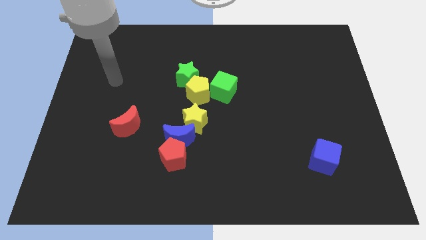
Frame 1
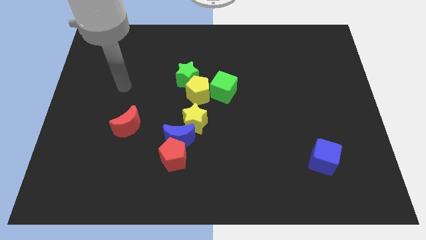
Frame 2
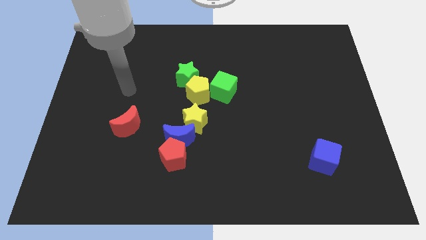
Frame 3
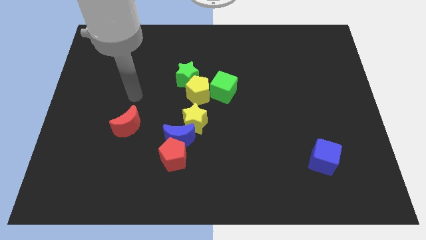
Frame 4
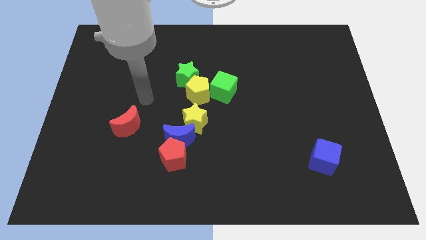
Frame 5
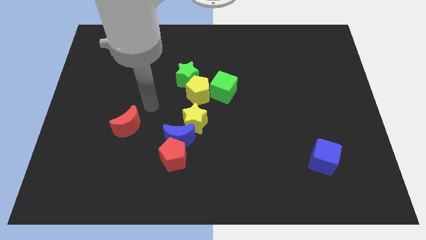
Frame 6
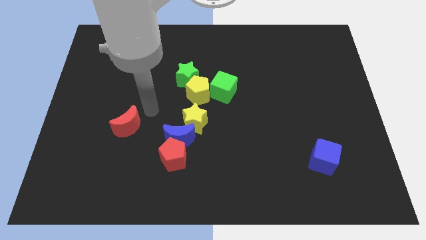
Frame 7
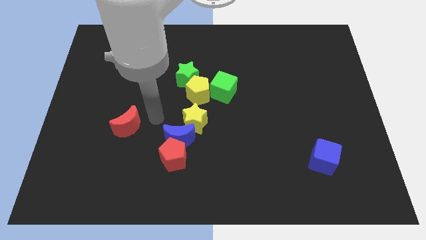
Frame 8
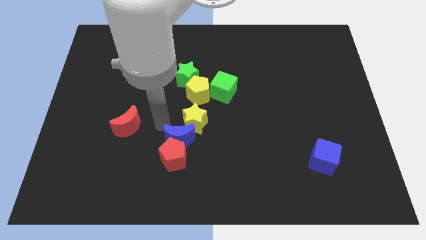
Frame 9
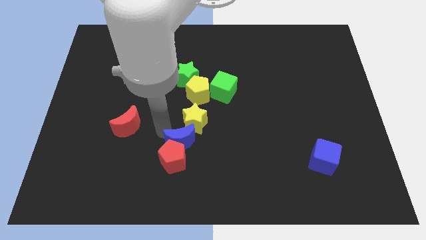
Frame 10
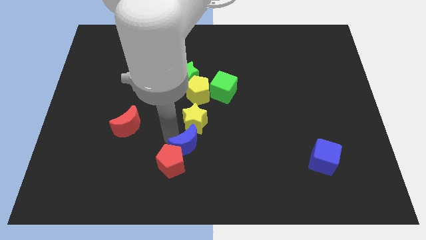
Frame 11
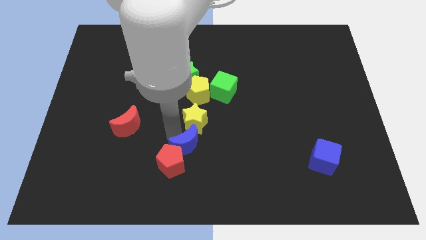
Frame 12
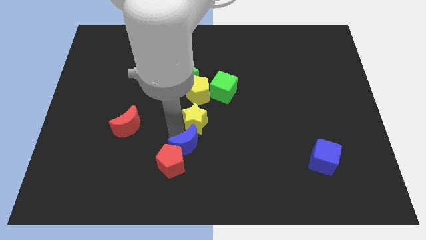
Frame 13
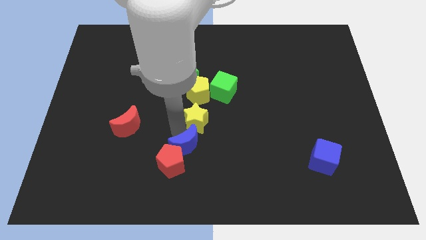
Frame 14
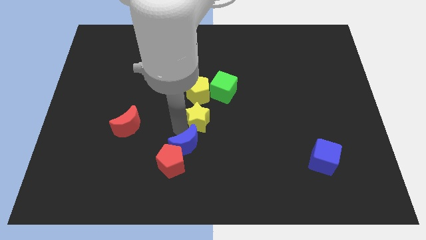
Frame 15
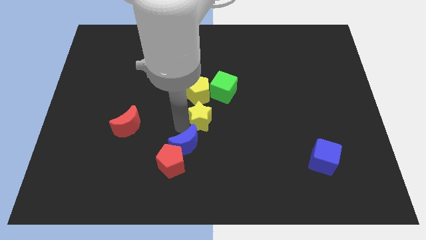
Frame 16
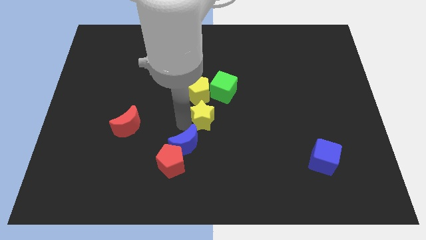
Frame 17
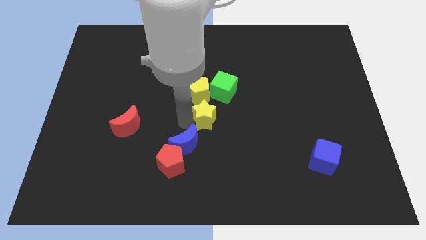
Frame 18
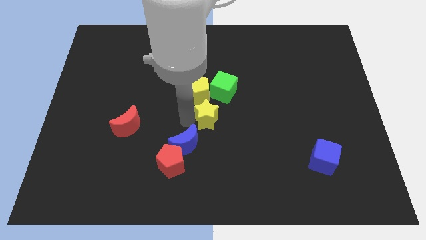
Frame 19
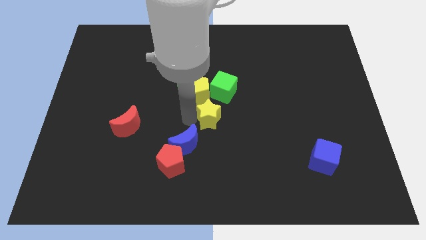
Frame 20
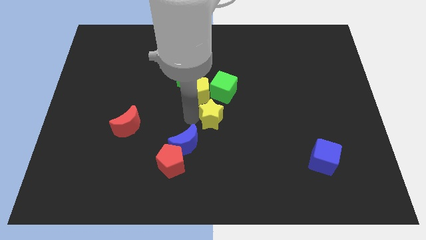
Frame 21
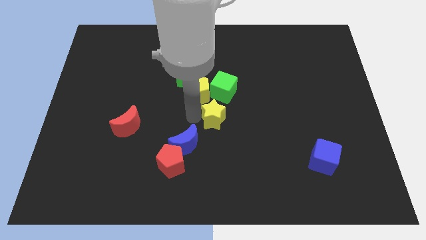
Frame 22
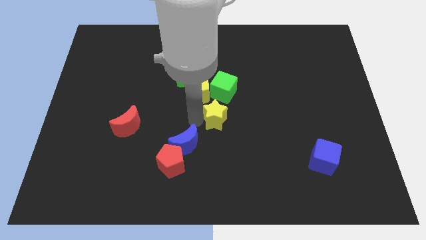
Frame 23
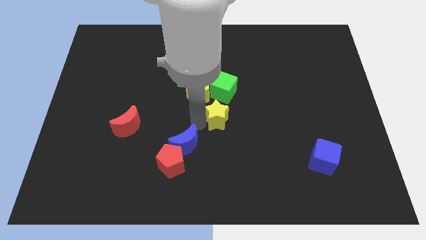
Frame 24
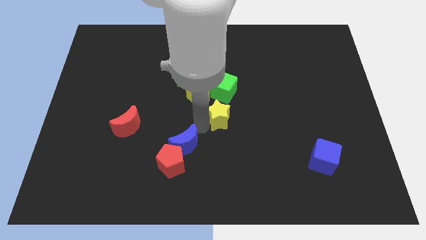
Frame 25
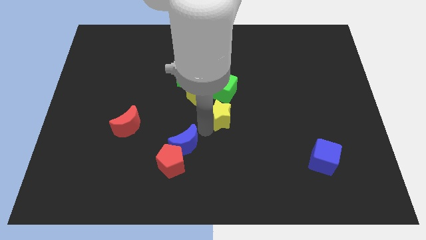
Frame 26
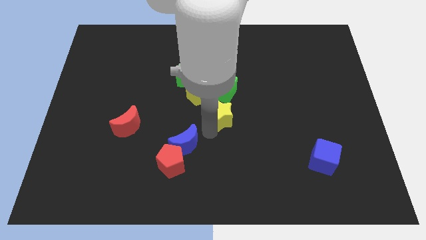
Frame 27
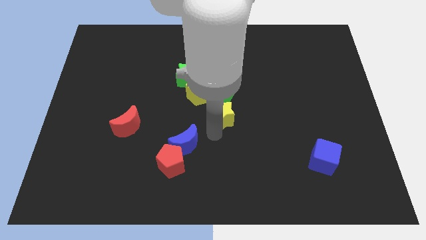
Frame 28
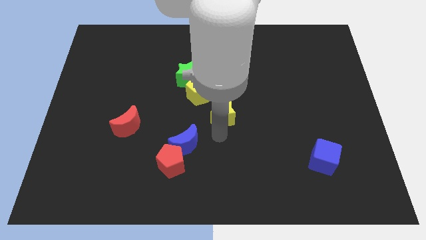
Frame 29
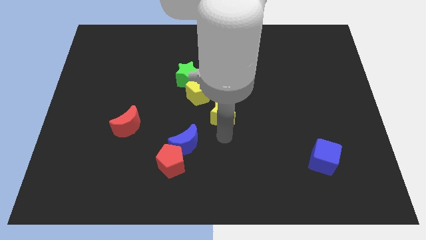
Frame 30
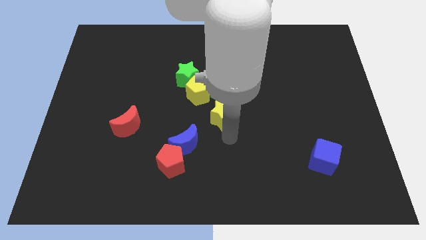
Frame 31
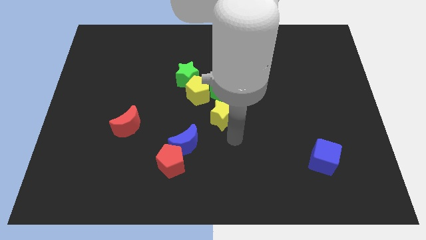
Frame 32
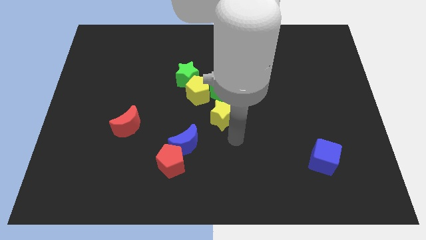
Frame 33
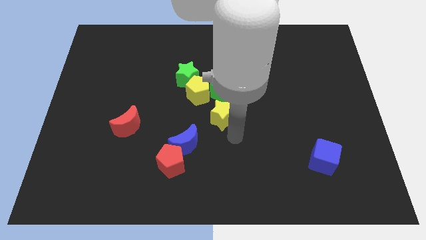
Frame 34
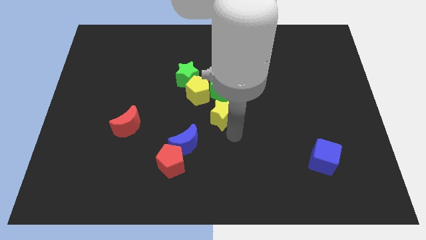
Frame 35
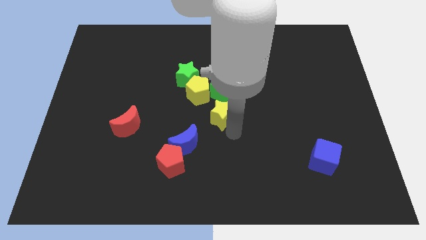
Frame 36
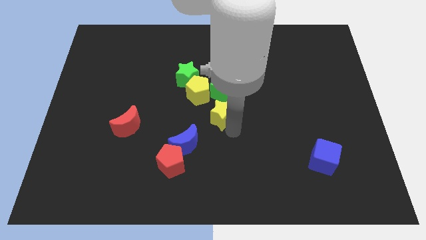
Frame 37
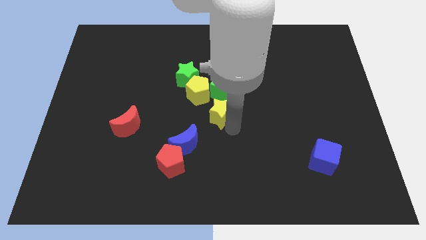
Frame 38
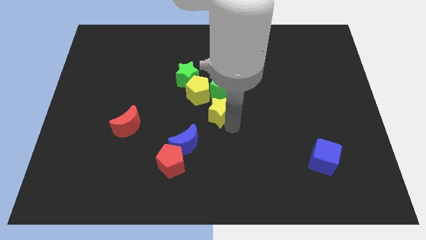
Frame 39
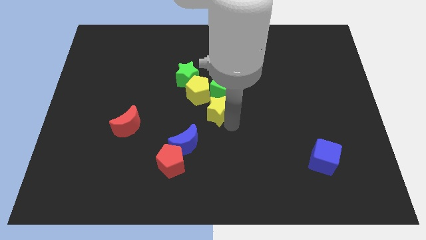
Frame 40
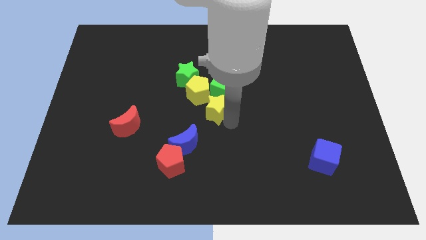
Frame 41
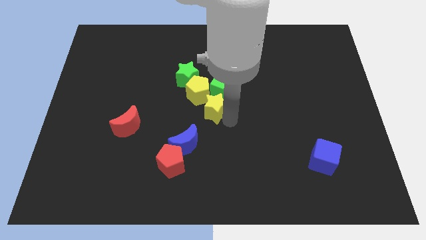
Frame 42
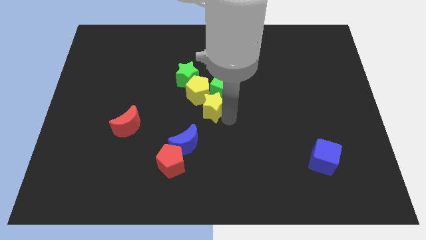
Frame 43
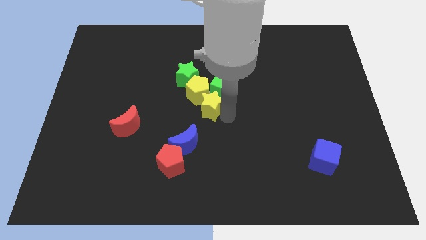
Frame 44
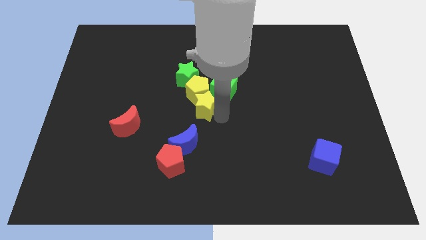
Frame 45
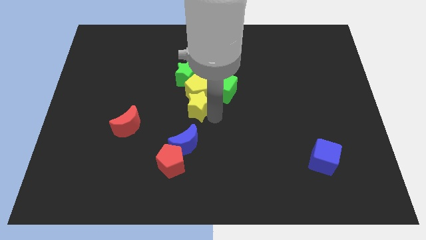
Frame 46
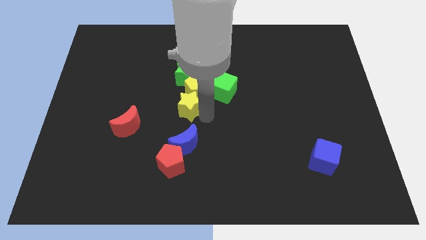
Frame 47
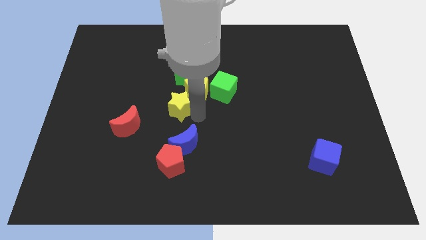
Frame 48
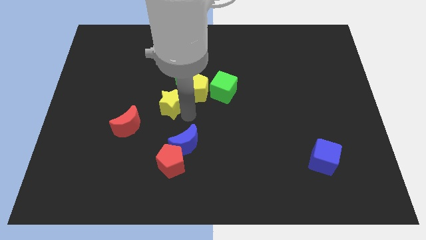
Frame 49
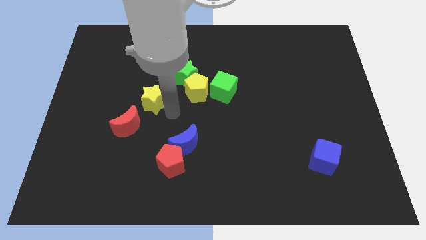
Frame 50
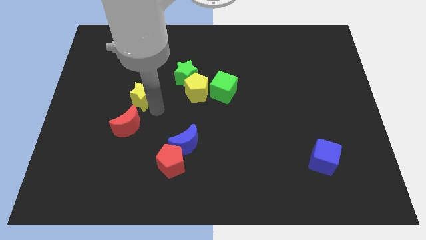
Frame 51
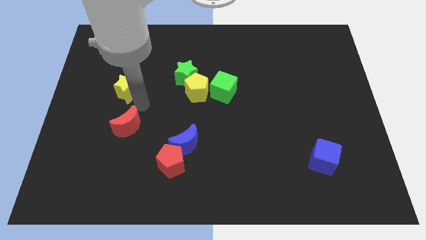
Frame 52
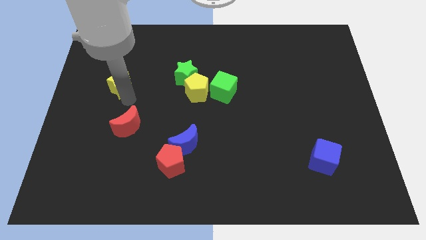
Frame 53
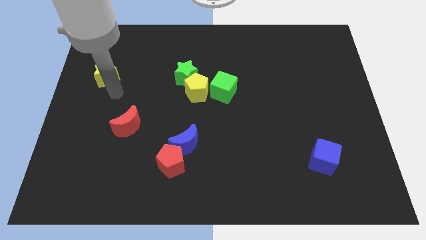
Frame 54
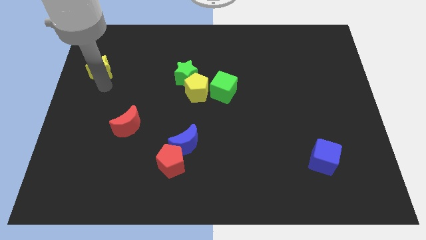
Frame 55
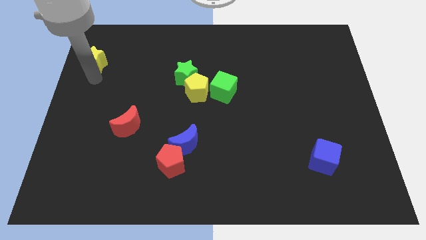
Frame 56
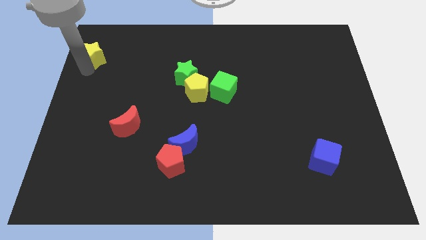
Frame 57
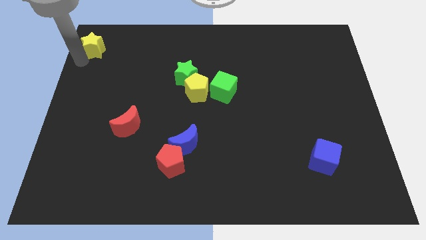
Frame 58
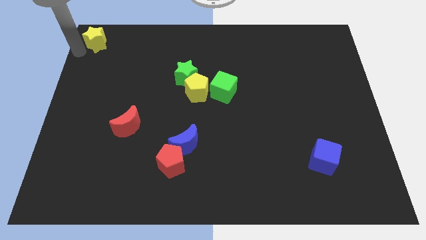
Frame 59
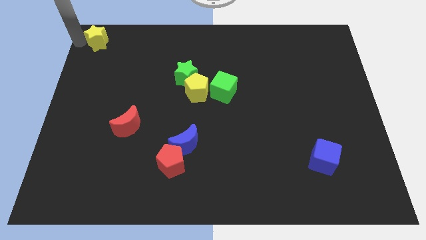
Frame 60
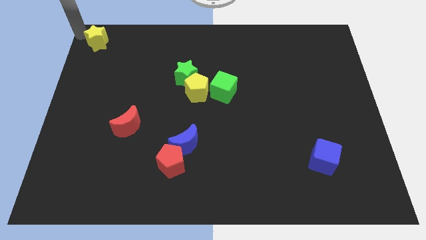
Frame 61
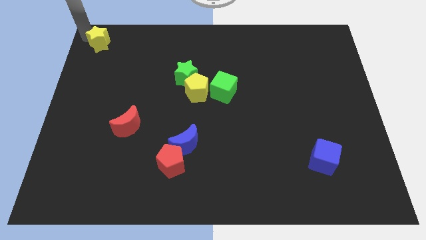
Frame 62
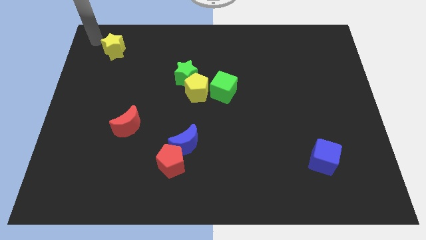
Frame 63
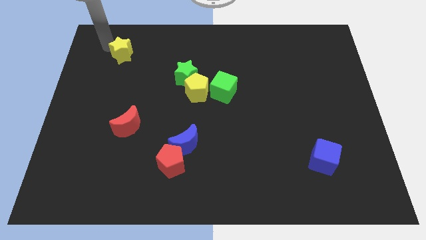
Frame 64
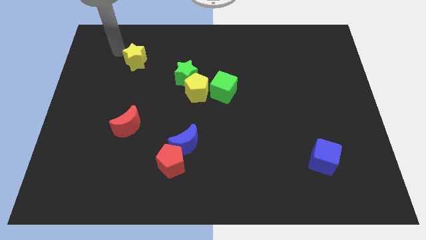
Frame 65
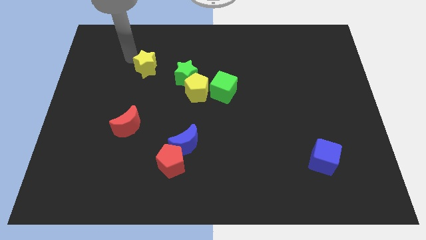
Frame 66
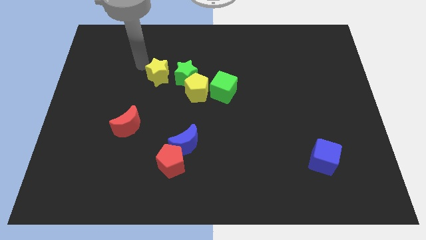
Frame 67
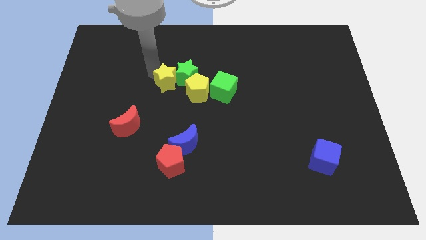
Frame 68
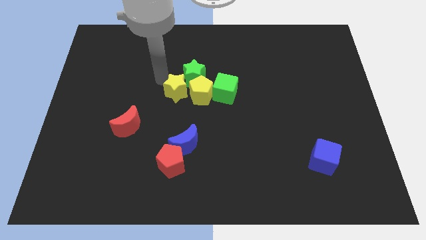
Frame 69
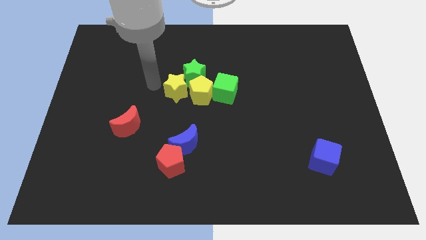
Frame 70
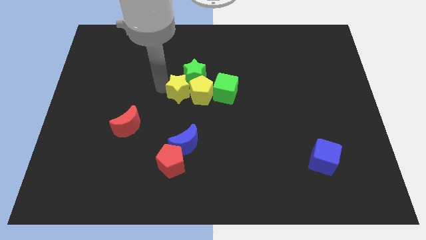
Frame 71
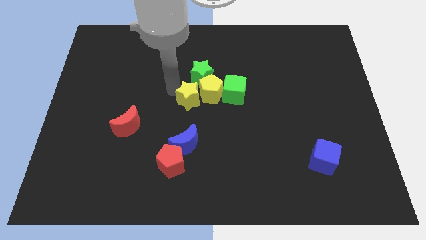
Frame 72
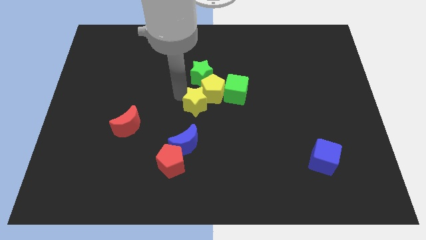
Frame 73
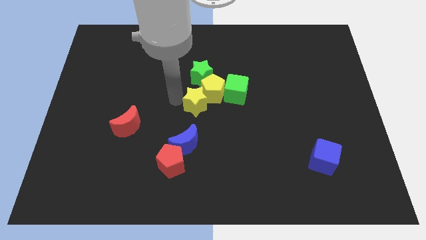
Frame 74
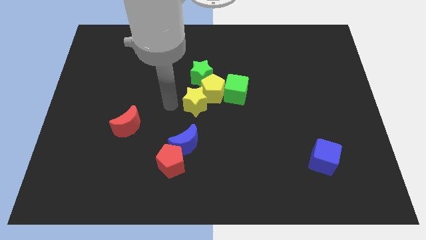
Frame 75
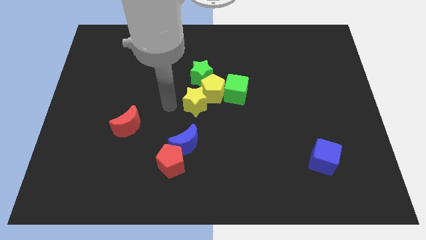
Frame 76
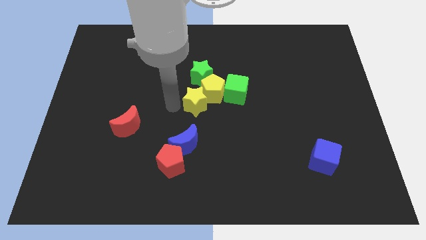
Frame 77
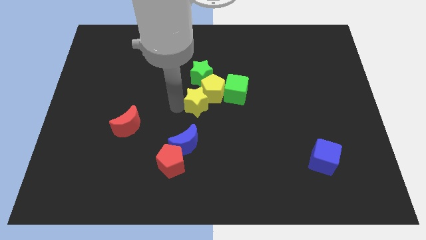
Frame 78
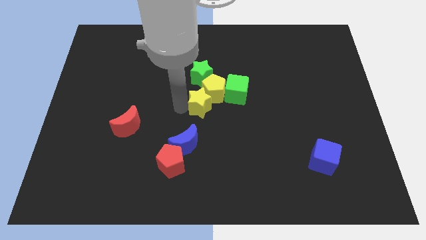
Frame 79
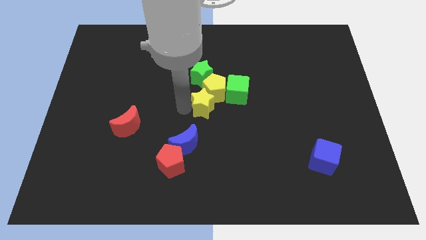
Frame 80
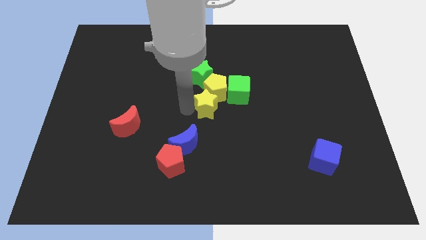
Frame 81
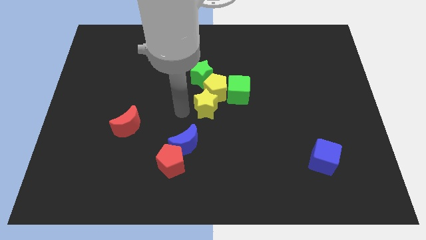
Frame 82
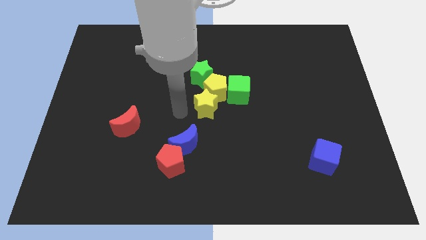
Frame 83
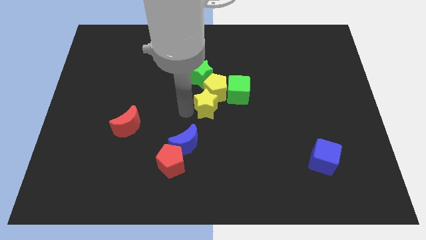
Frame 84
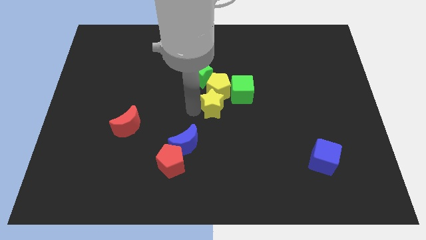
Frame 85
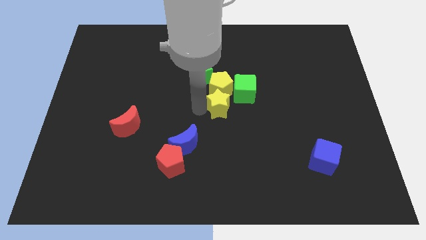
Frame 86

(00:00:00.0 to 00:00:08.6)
move the yellow star upwards and to the right slightly
